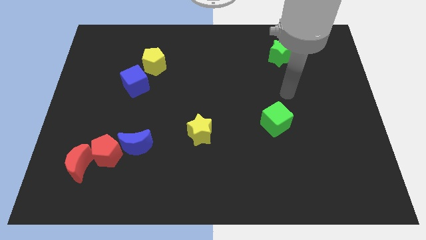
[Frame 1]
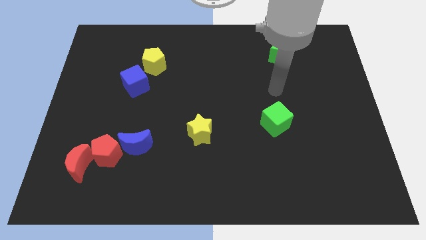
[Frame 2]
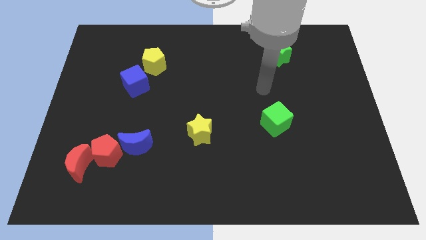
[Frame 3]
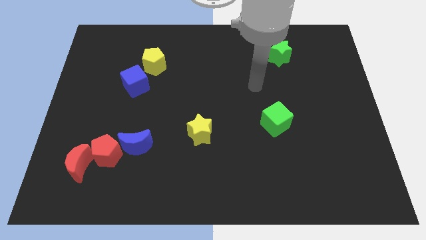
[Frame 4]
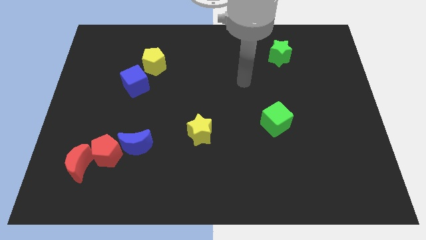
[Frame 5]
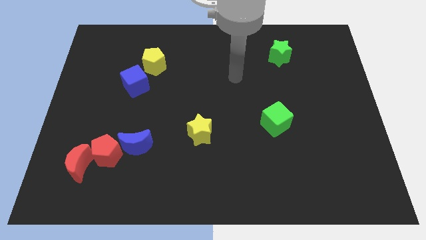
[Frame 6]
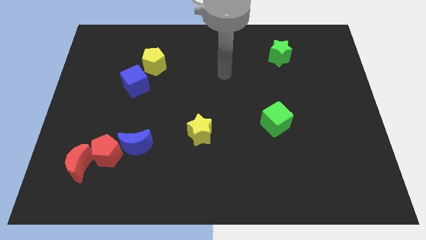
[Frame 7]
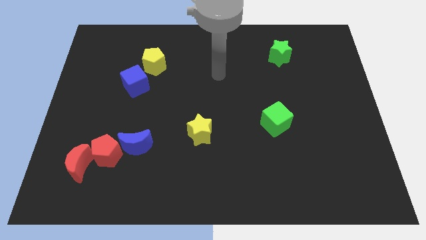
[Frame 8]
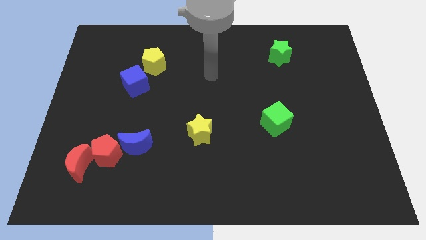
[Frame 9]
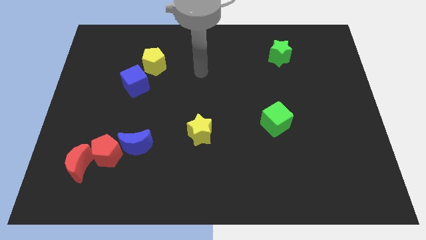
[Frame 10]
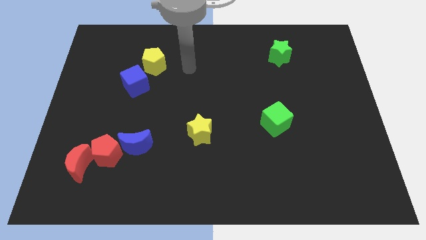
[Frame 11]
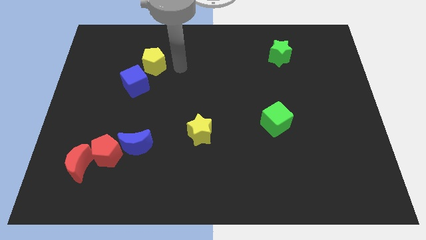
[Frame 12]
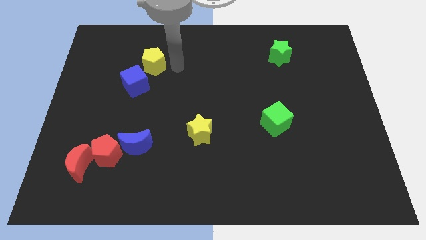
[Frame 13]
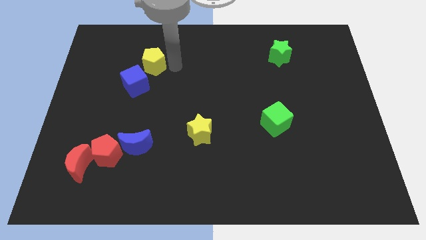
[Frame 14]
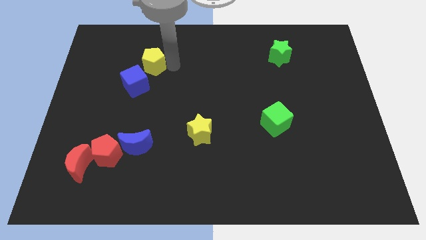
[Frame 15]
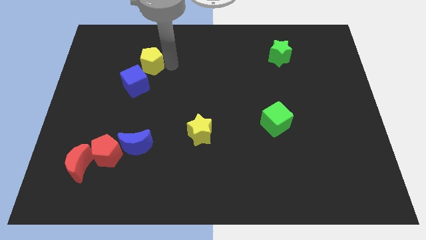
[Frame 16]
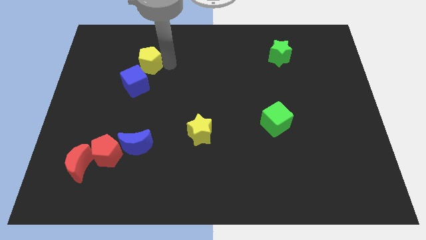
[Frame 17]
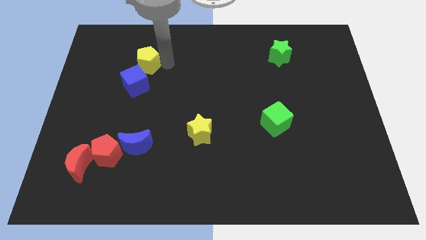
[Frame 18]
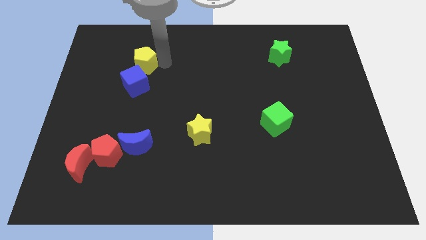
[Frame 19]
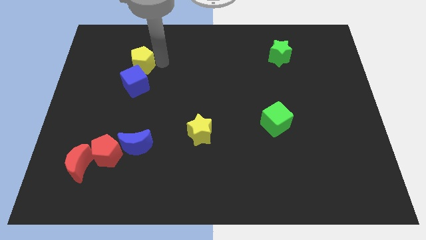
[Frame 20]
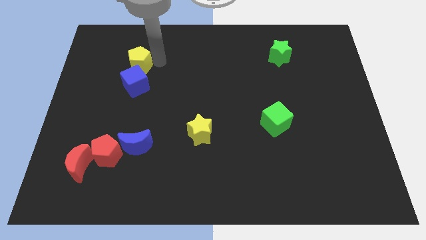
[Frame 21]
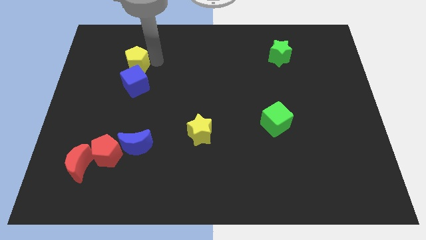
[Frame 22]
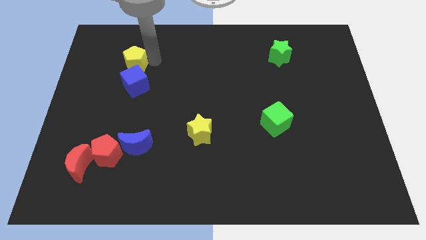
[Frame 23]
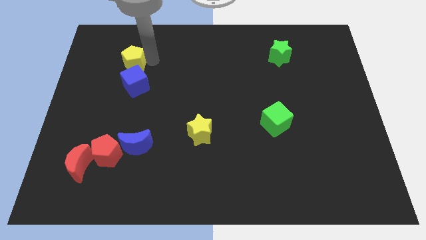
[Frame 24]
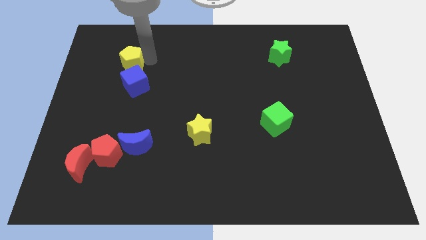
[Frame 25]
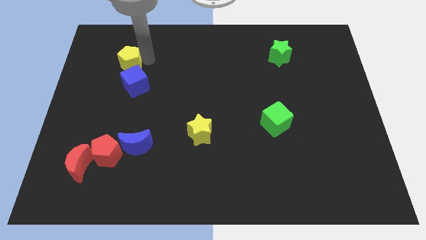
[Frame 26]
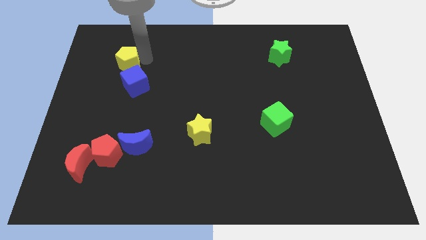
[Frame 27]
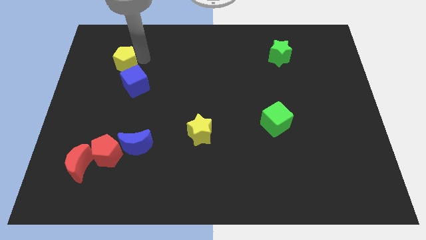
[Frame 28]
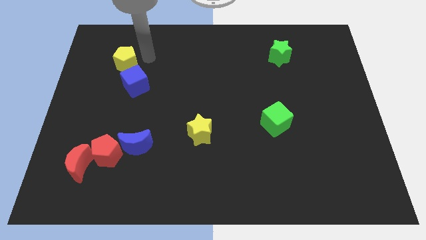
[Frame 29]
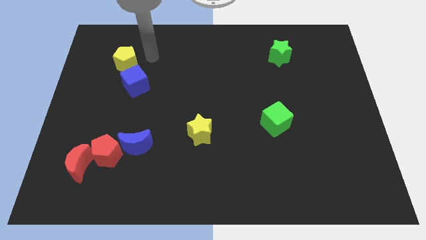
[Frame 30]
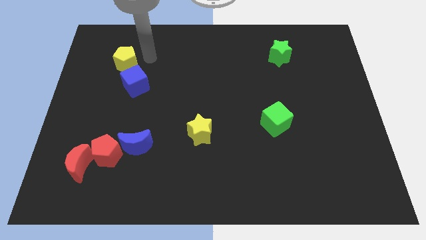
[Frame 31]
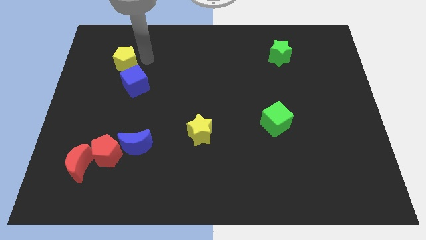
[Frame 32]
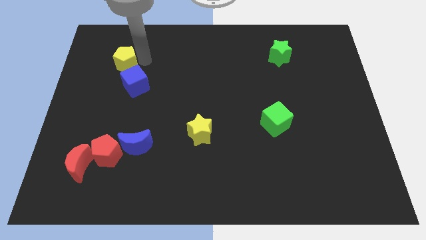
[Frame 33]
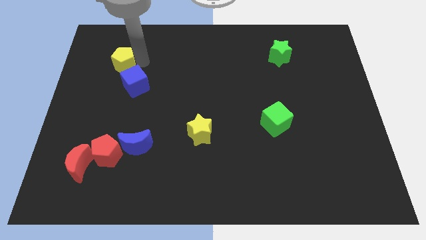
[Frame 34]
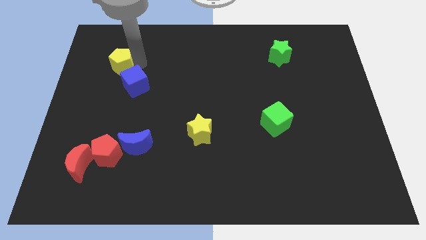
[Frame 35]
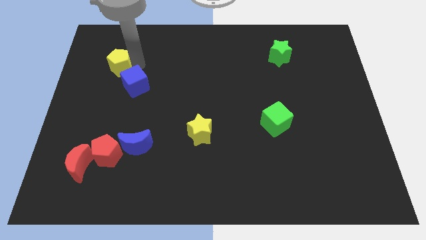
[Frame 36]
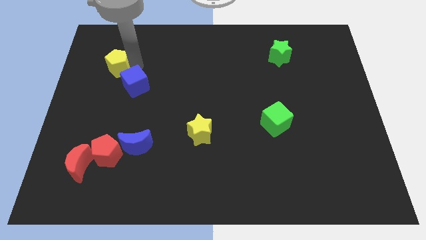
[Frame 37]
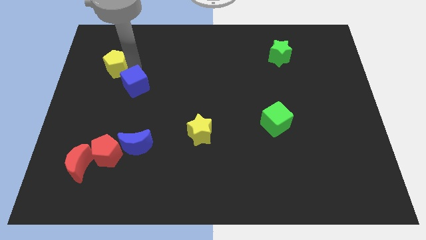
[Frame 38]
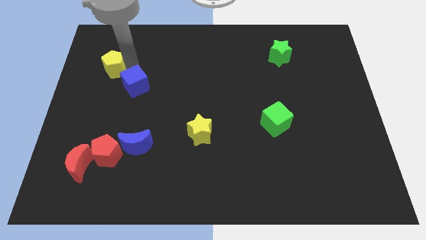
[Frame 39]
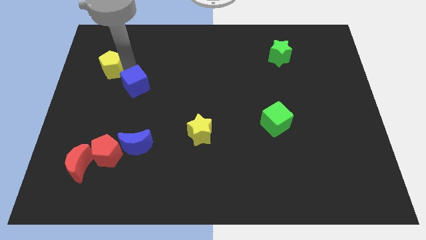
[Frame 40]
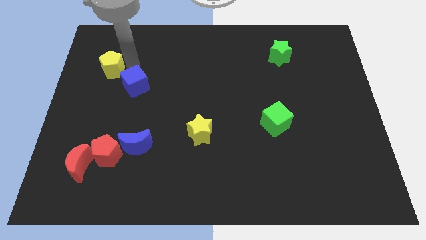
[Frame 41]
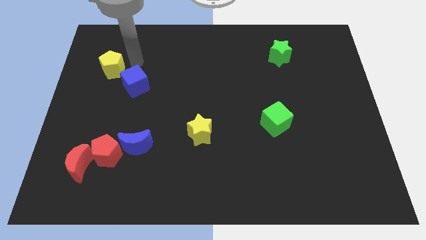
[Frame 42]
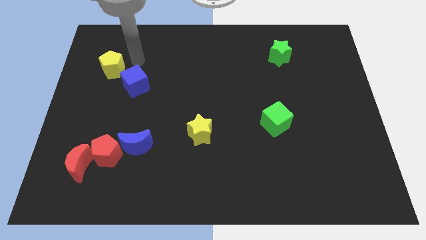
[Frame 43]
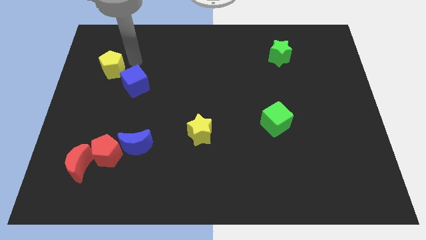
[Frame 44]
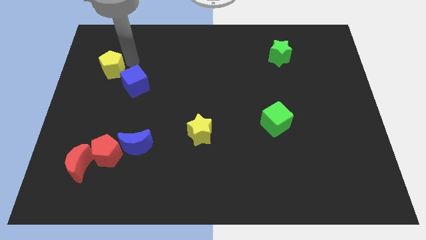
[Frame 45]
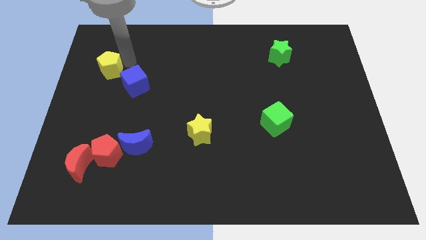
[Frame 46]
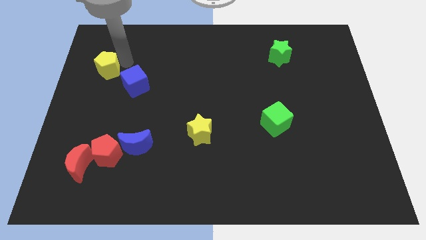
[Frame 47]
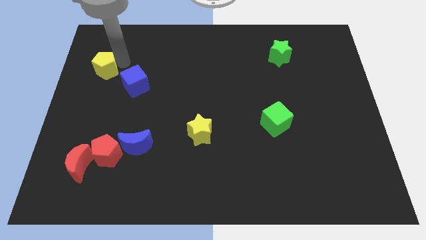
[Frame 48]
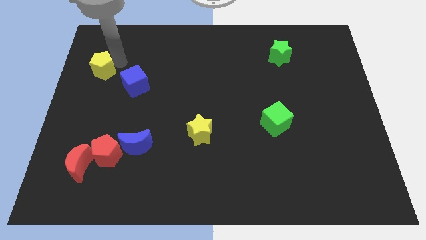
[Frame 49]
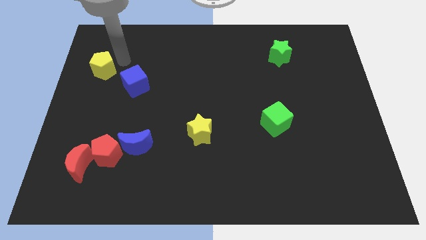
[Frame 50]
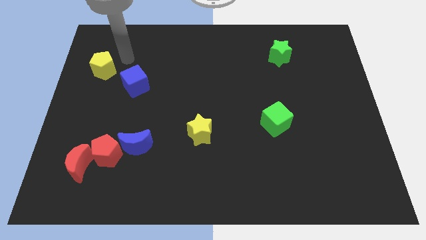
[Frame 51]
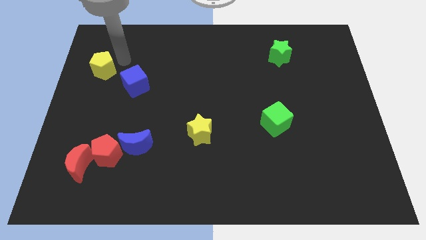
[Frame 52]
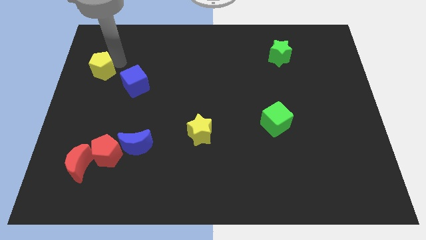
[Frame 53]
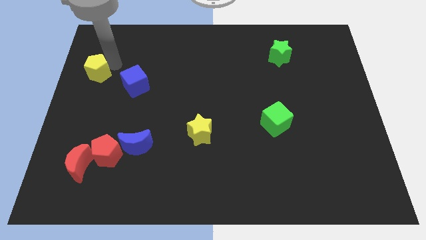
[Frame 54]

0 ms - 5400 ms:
slide the yellow pentagon to the center left
